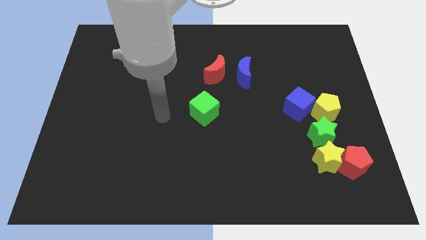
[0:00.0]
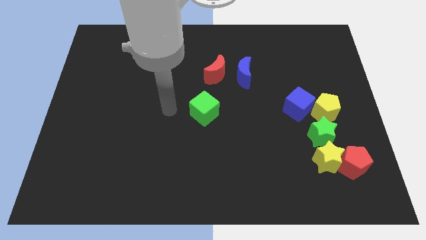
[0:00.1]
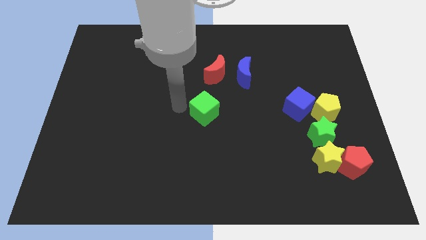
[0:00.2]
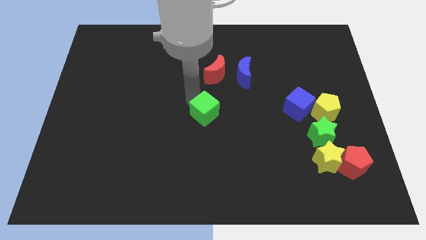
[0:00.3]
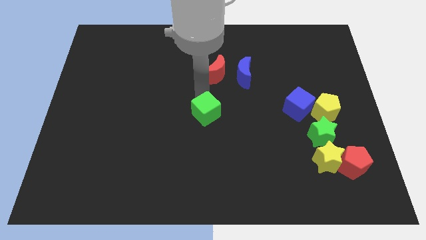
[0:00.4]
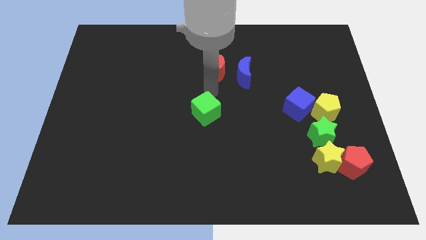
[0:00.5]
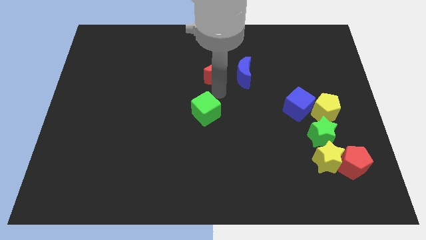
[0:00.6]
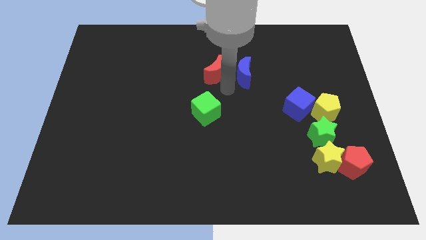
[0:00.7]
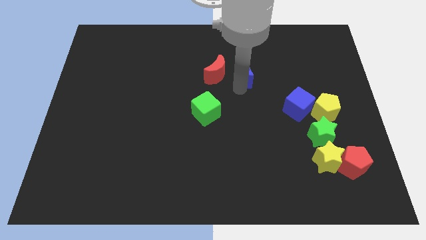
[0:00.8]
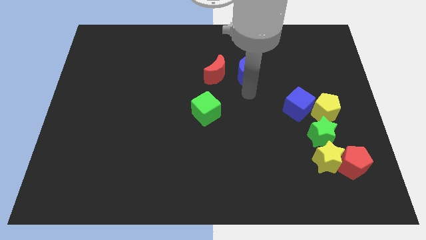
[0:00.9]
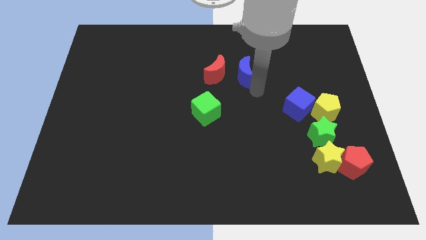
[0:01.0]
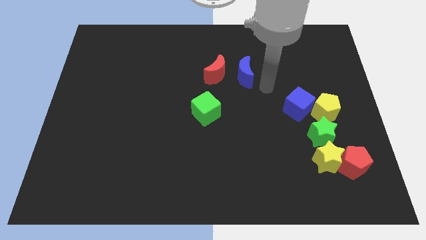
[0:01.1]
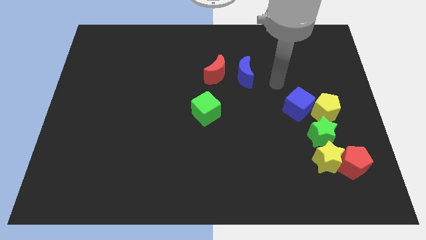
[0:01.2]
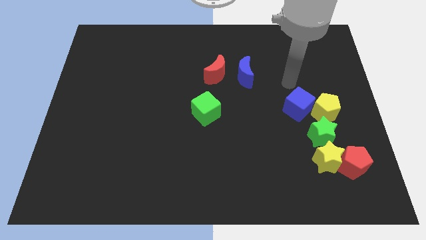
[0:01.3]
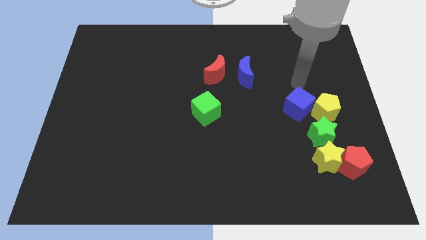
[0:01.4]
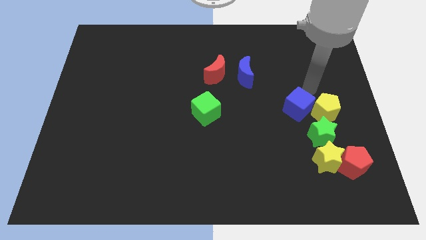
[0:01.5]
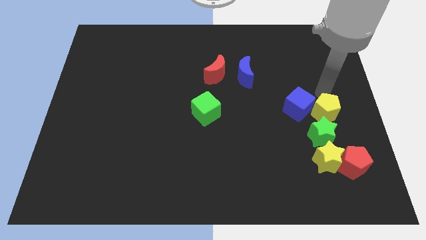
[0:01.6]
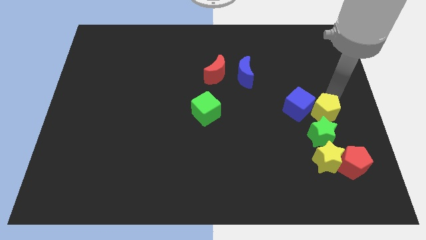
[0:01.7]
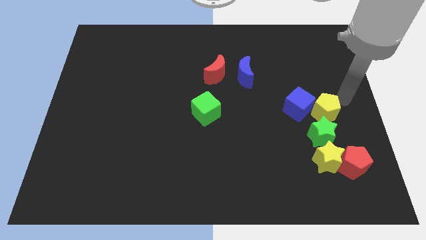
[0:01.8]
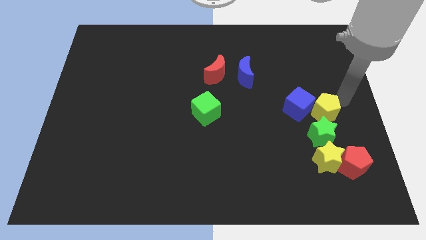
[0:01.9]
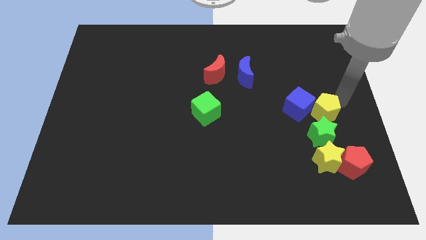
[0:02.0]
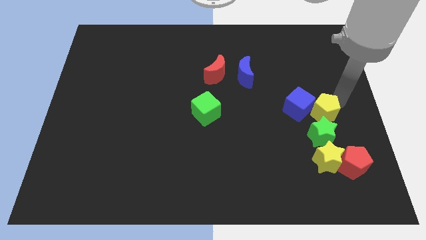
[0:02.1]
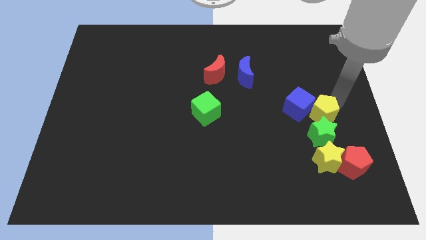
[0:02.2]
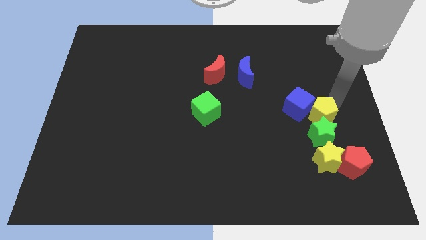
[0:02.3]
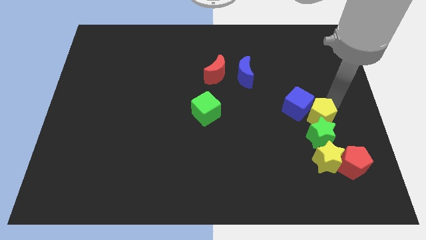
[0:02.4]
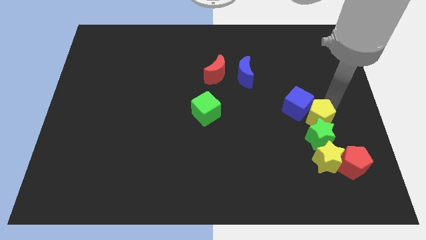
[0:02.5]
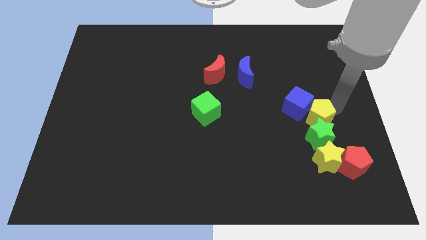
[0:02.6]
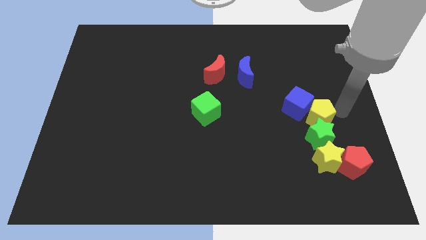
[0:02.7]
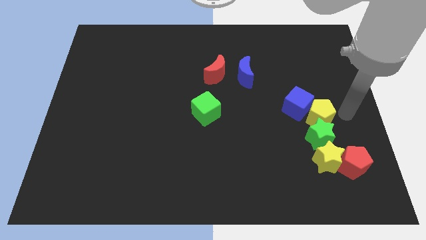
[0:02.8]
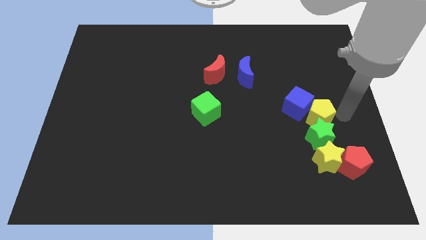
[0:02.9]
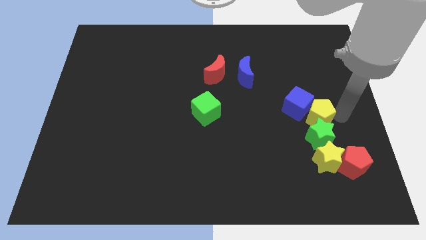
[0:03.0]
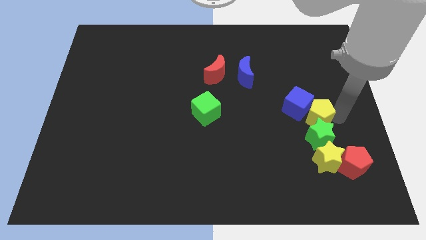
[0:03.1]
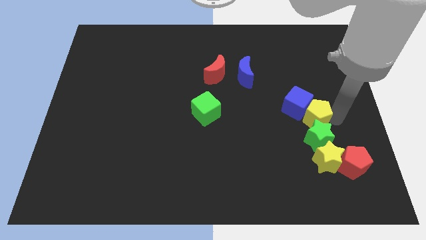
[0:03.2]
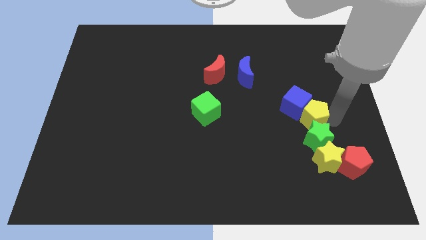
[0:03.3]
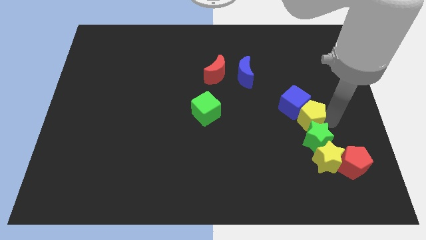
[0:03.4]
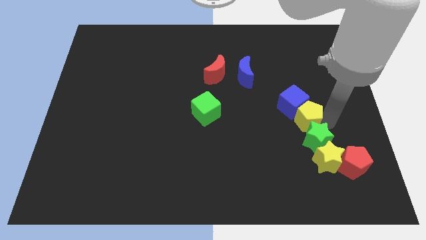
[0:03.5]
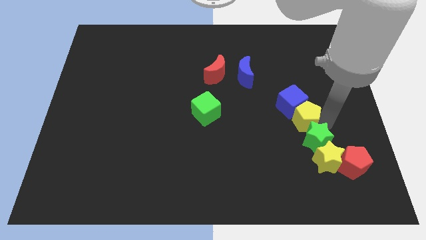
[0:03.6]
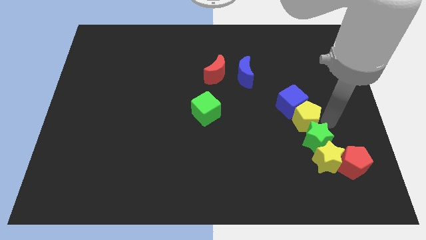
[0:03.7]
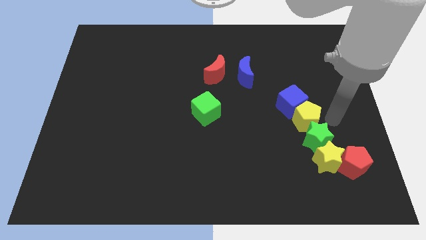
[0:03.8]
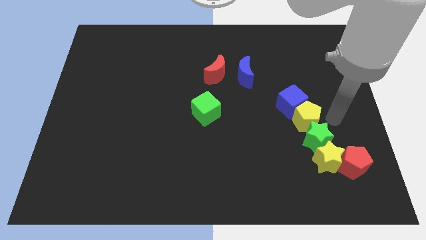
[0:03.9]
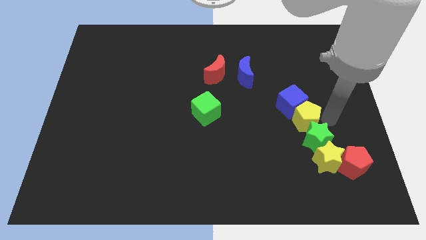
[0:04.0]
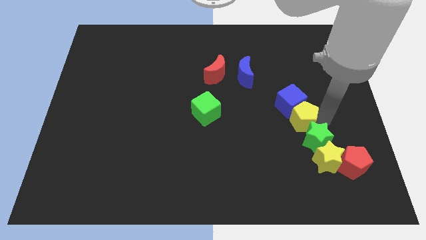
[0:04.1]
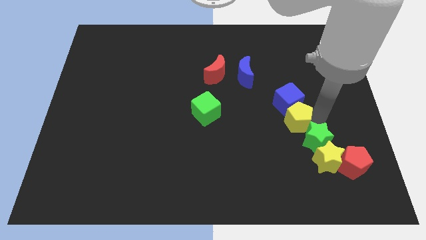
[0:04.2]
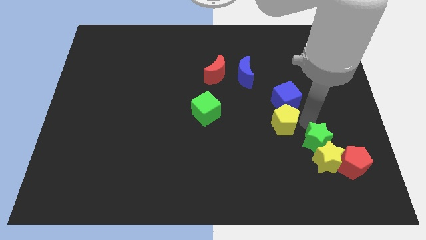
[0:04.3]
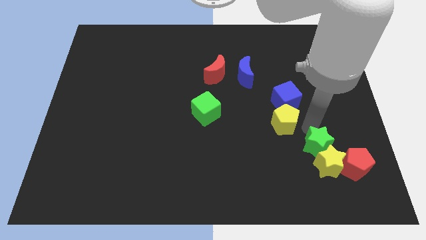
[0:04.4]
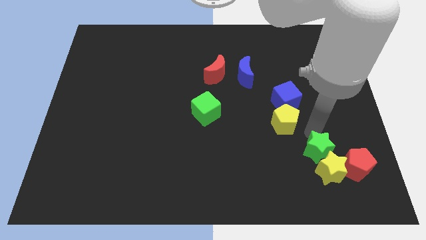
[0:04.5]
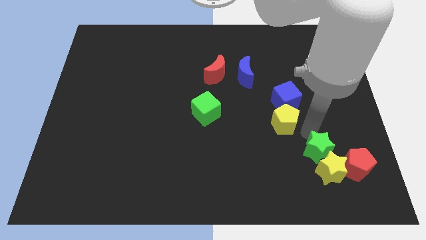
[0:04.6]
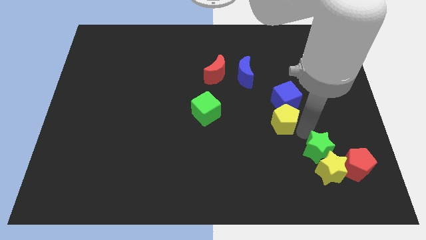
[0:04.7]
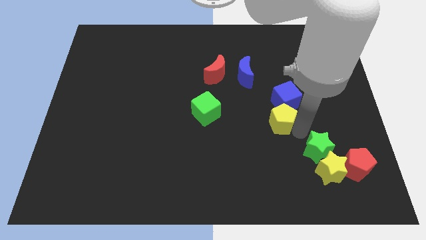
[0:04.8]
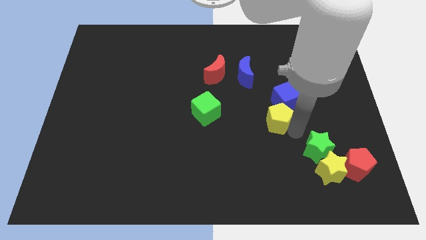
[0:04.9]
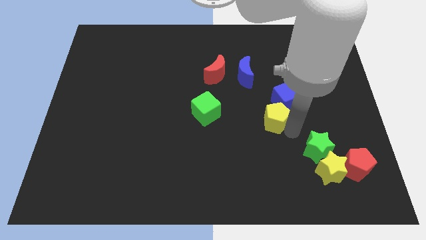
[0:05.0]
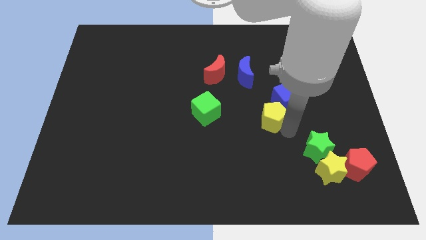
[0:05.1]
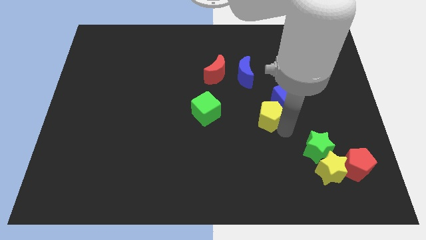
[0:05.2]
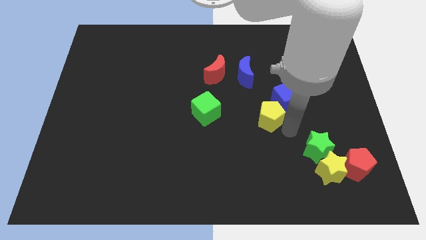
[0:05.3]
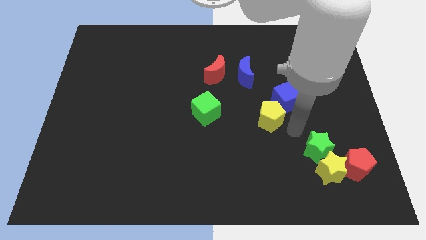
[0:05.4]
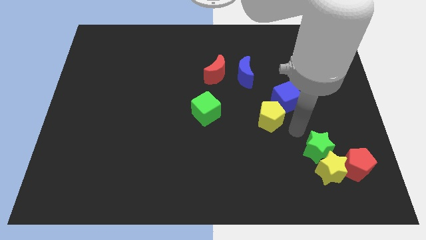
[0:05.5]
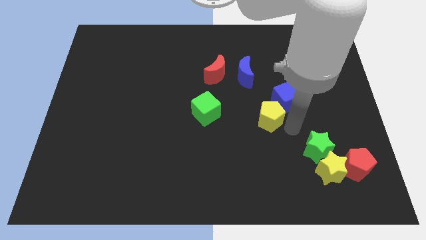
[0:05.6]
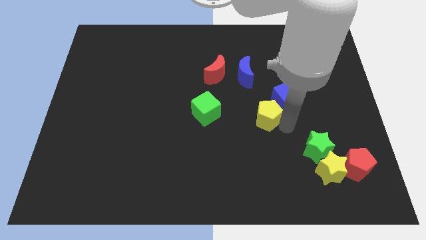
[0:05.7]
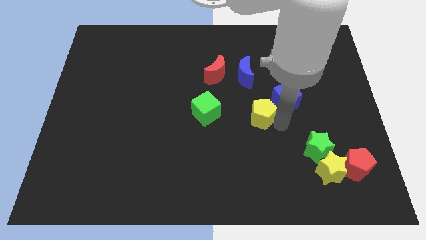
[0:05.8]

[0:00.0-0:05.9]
slide the yellow pentagon to the center
